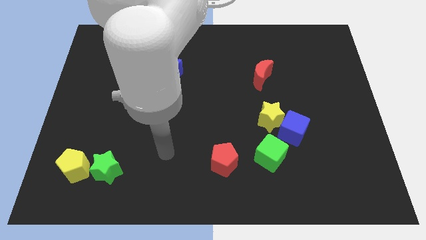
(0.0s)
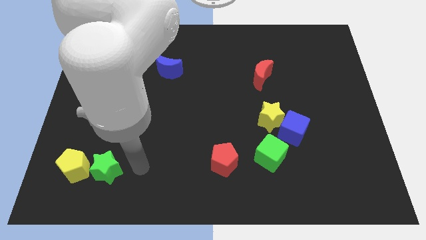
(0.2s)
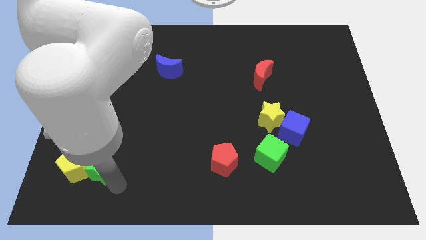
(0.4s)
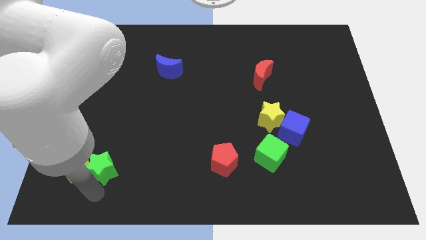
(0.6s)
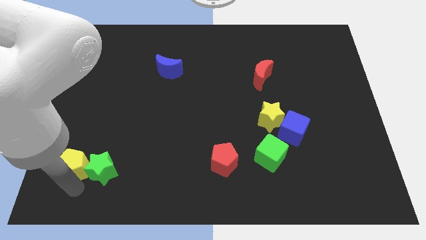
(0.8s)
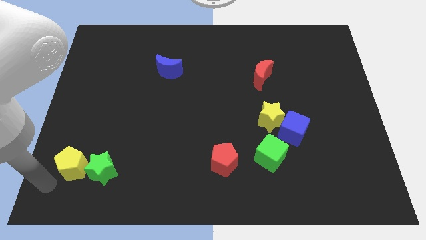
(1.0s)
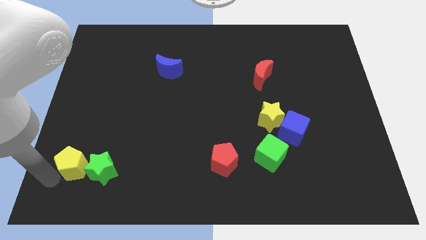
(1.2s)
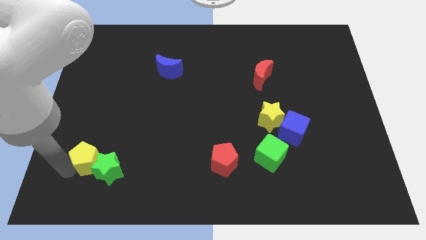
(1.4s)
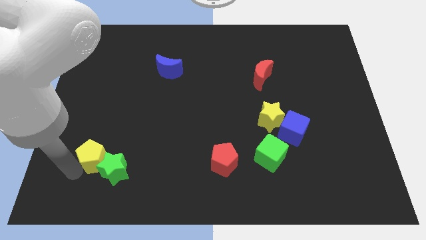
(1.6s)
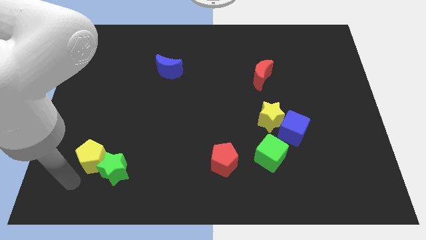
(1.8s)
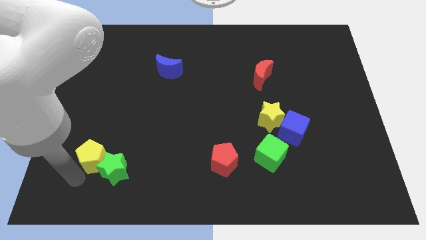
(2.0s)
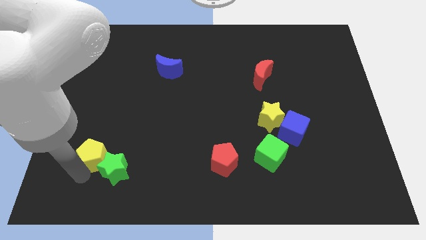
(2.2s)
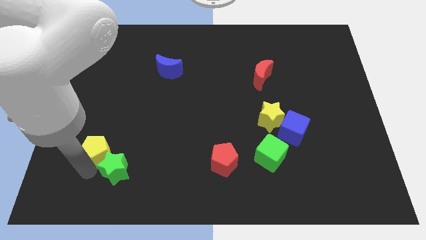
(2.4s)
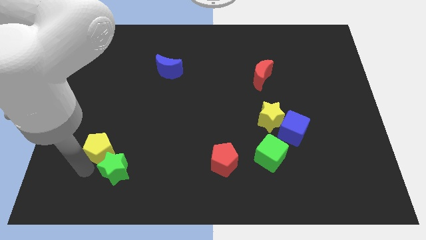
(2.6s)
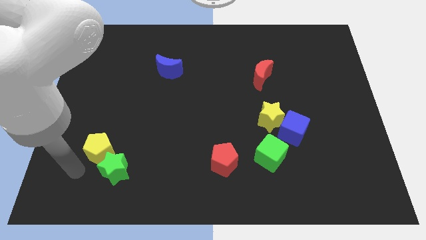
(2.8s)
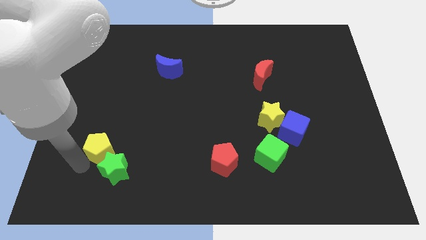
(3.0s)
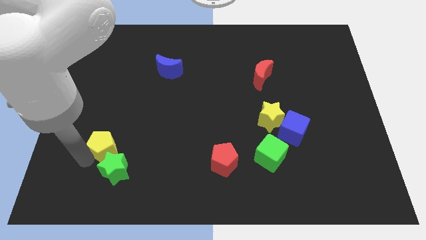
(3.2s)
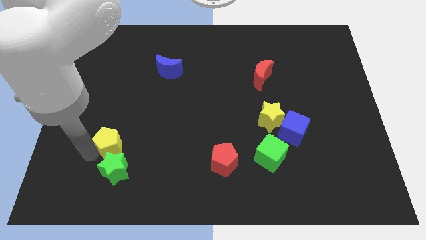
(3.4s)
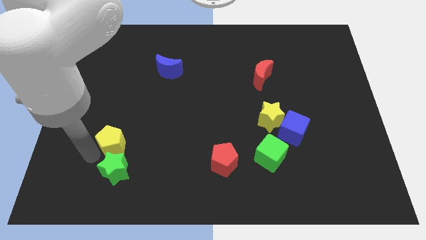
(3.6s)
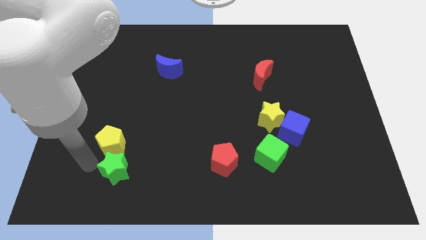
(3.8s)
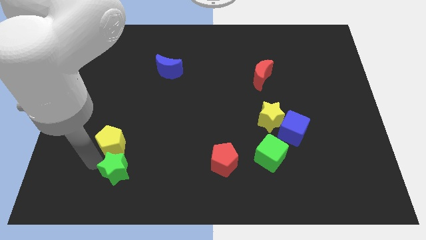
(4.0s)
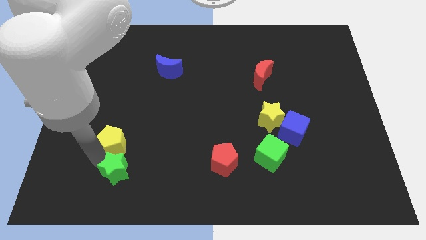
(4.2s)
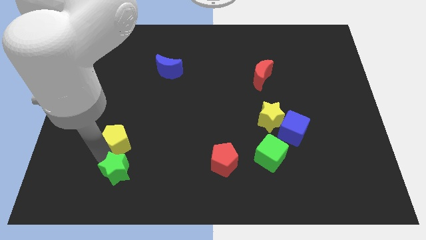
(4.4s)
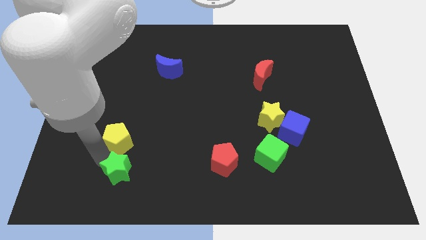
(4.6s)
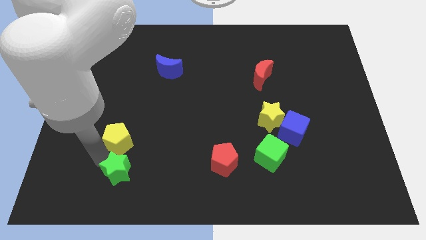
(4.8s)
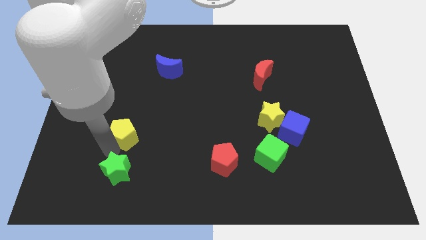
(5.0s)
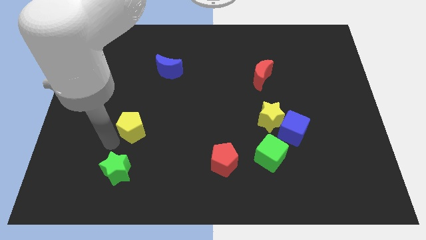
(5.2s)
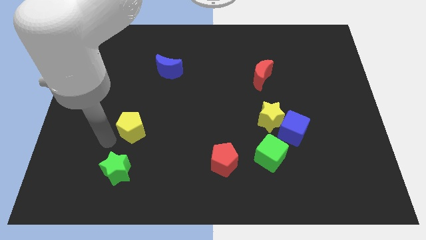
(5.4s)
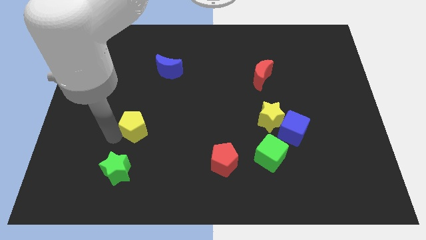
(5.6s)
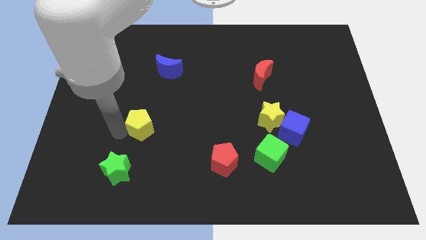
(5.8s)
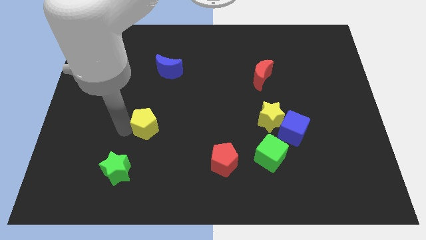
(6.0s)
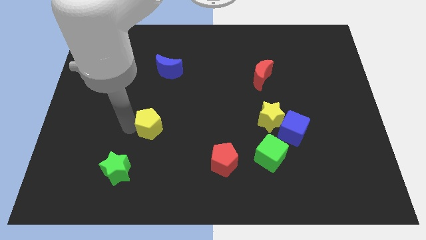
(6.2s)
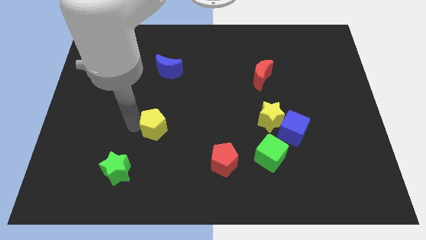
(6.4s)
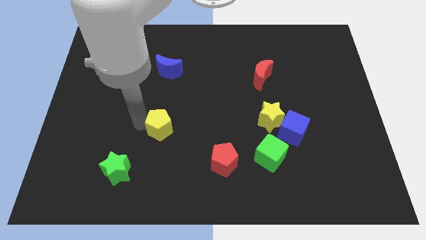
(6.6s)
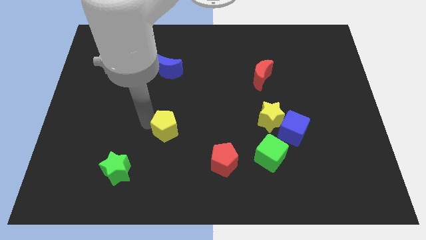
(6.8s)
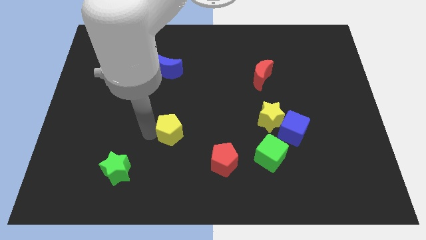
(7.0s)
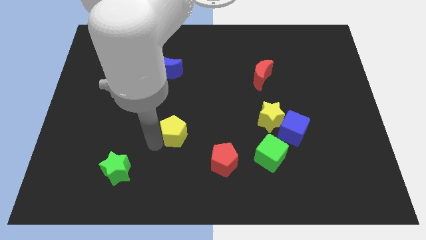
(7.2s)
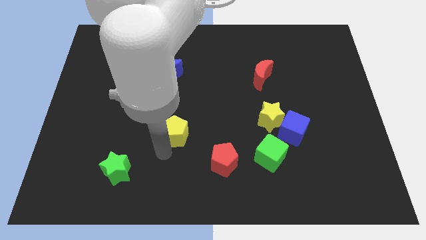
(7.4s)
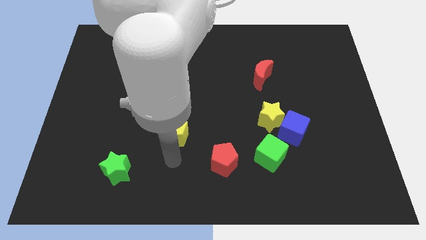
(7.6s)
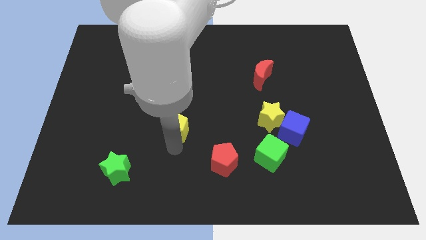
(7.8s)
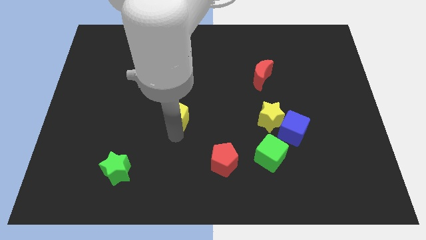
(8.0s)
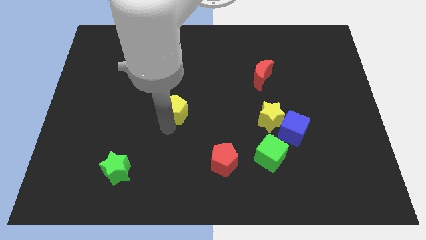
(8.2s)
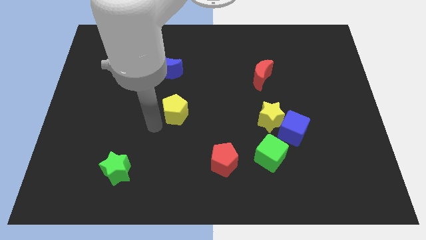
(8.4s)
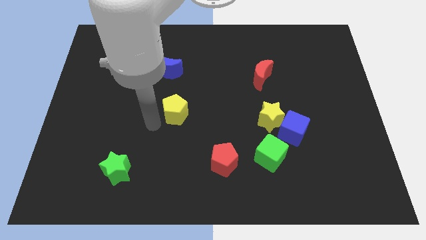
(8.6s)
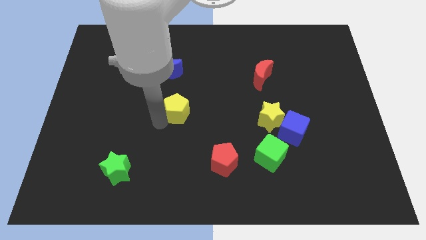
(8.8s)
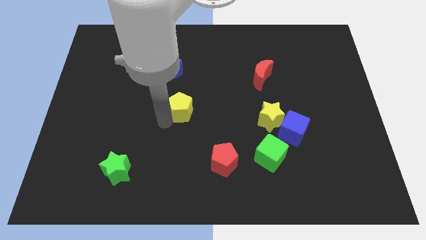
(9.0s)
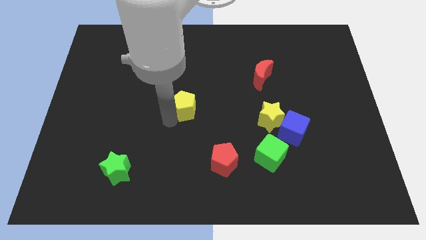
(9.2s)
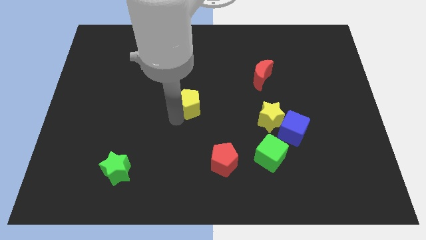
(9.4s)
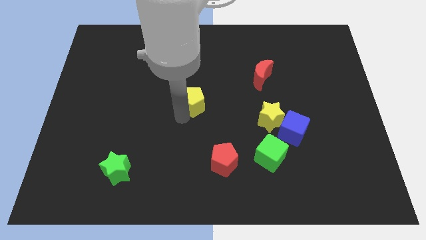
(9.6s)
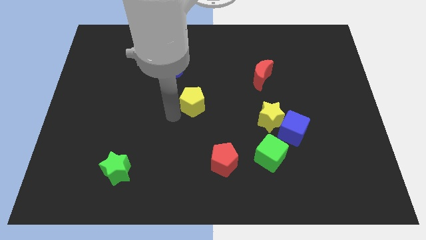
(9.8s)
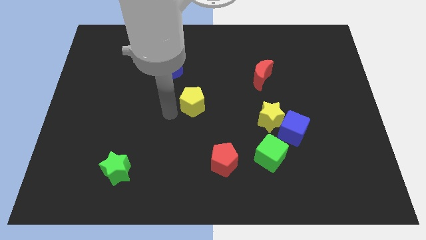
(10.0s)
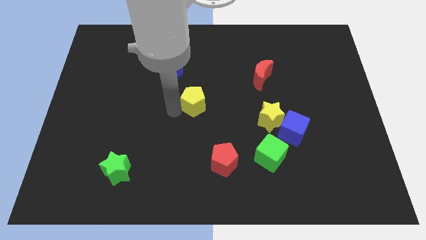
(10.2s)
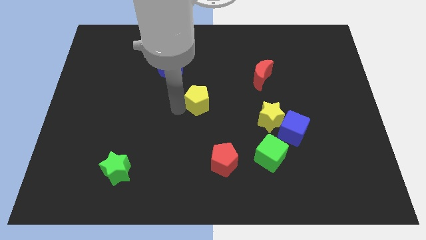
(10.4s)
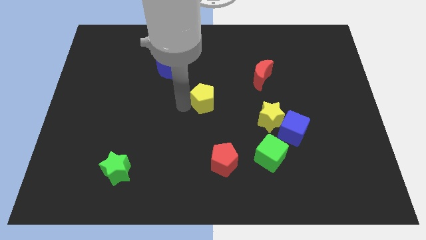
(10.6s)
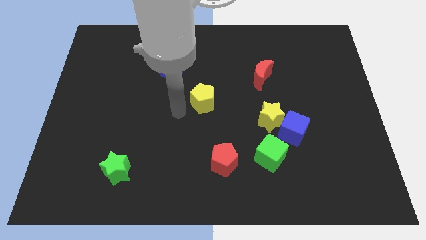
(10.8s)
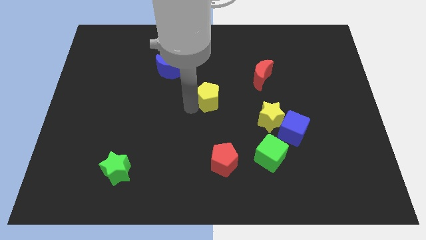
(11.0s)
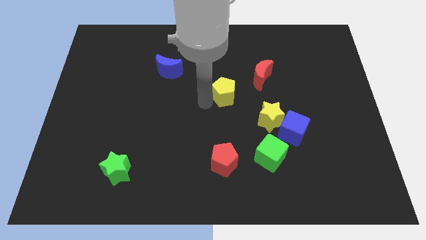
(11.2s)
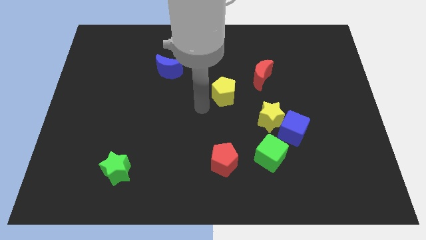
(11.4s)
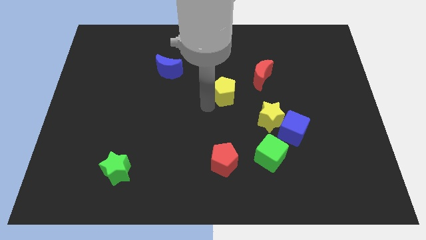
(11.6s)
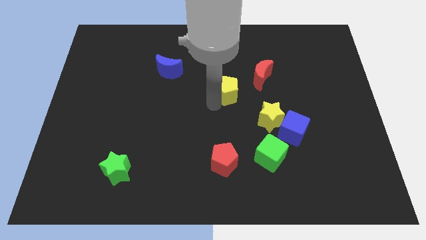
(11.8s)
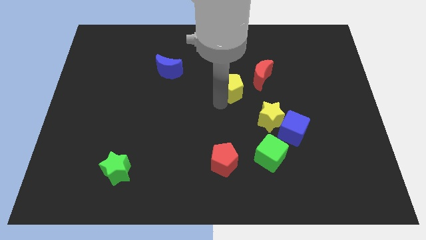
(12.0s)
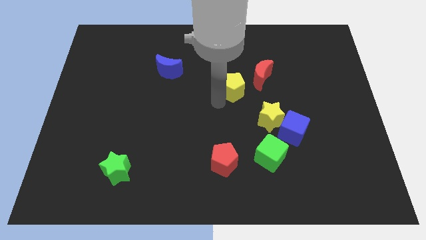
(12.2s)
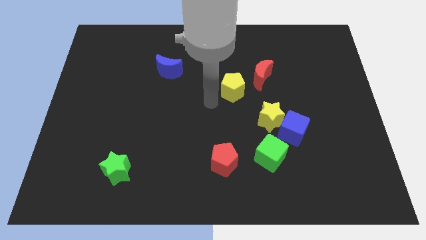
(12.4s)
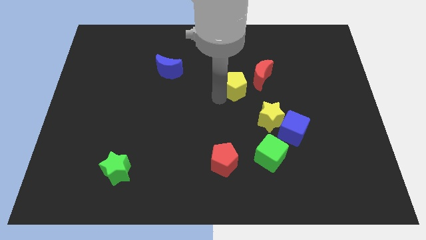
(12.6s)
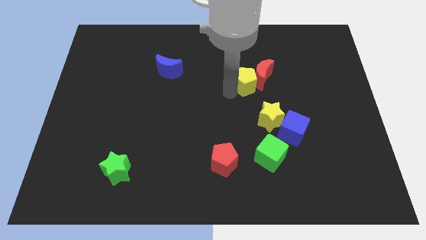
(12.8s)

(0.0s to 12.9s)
slide the yellow pentagon next to the red moon
